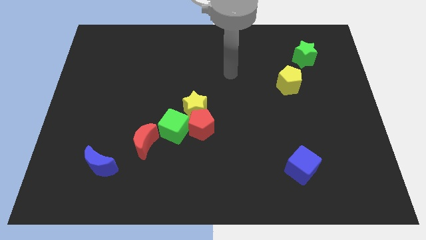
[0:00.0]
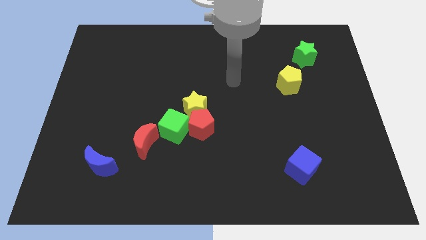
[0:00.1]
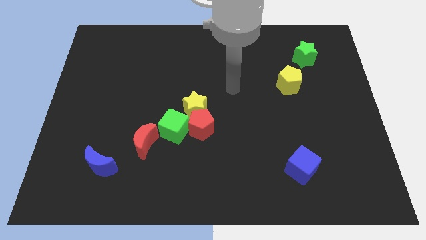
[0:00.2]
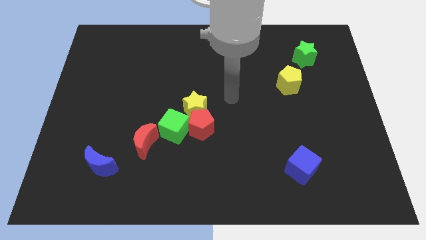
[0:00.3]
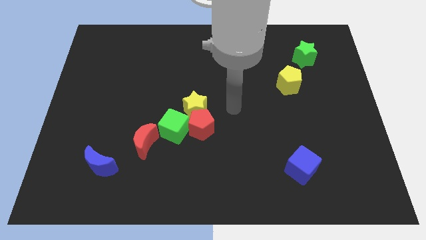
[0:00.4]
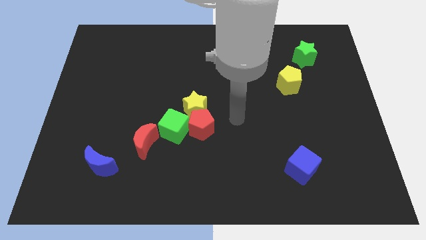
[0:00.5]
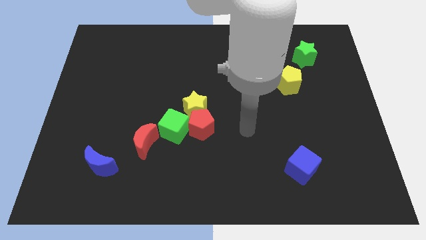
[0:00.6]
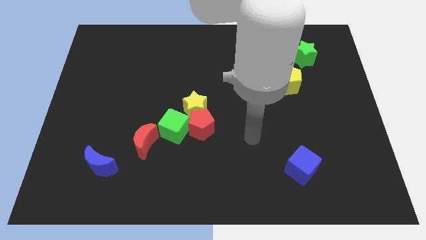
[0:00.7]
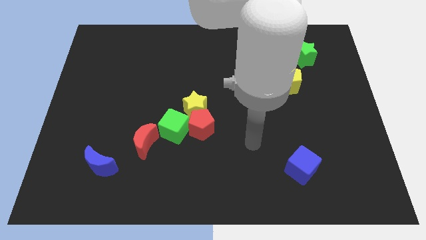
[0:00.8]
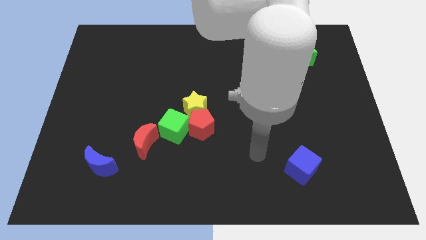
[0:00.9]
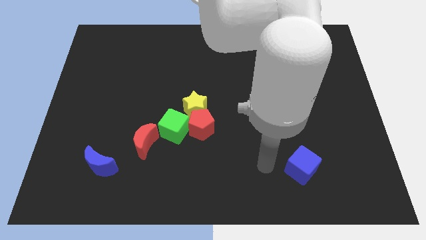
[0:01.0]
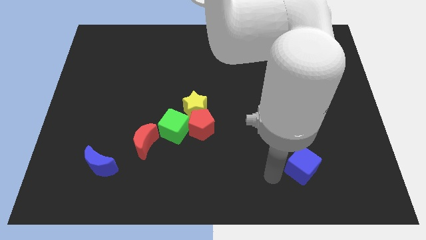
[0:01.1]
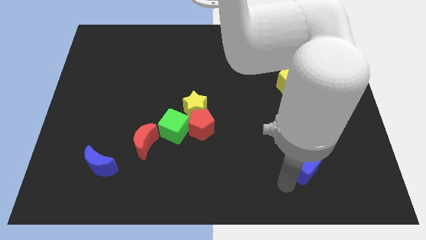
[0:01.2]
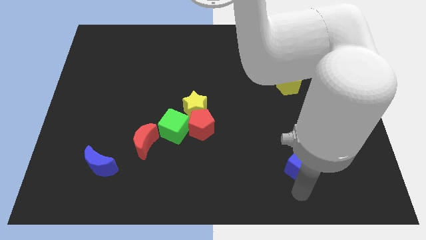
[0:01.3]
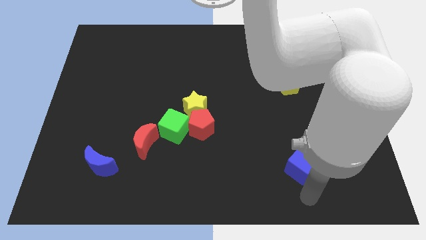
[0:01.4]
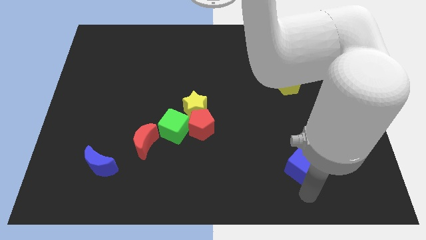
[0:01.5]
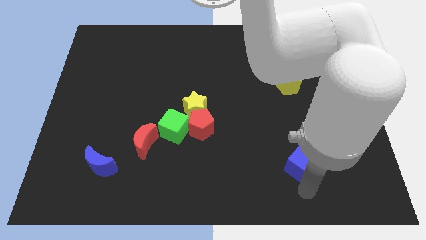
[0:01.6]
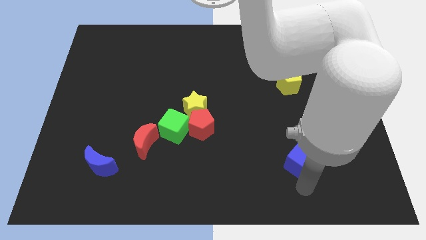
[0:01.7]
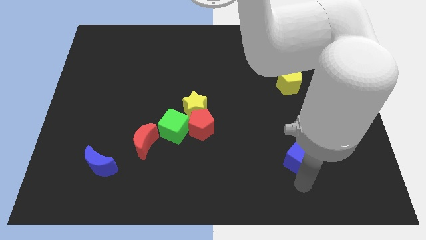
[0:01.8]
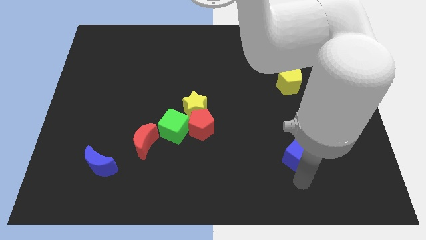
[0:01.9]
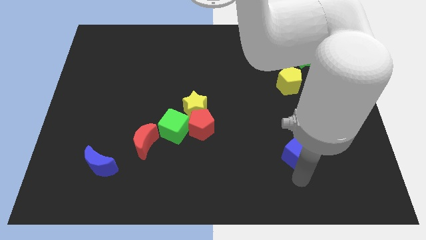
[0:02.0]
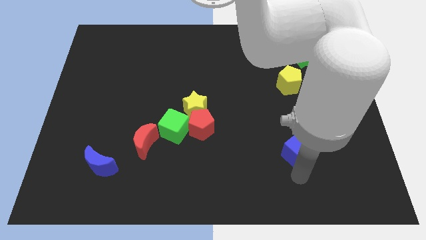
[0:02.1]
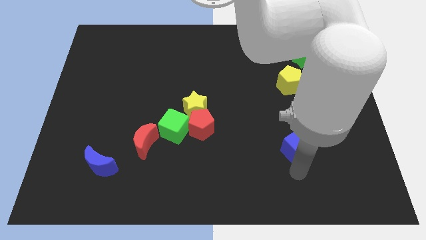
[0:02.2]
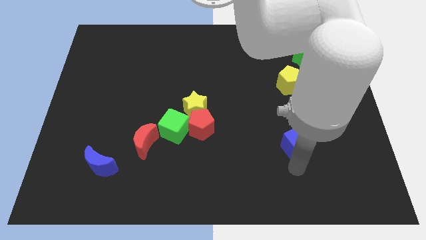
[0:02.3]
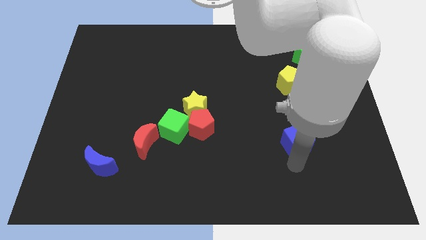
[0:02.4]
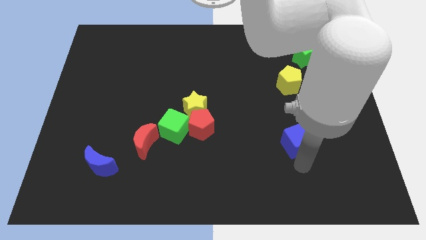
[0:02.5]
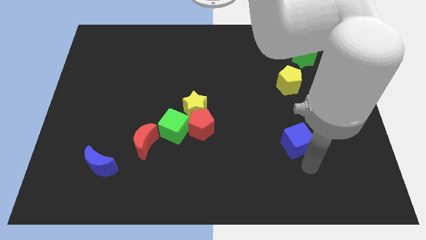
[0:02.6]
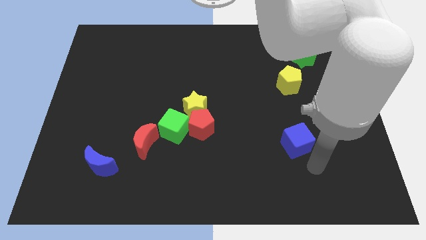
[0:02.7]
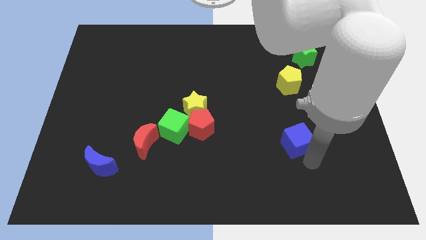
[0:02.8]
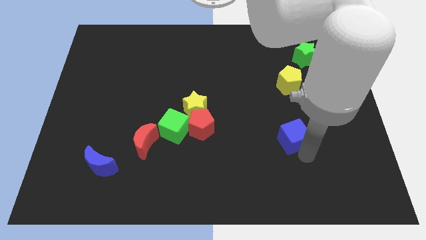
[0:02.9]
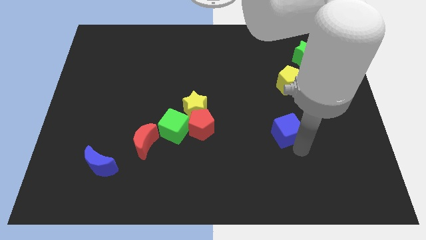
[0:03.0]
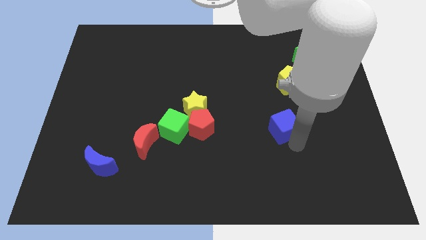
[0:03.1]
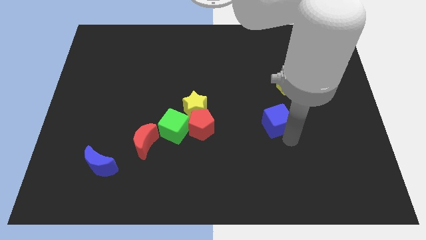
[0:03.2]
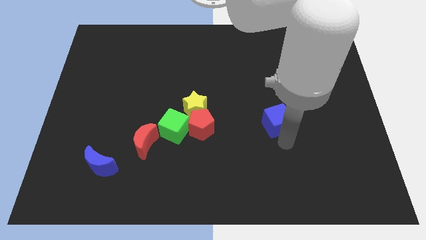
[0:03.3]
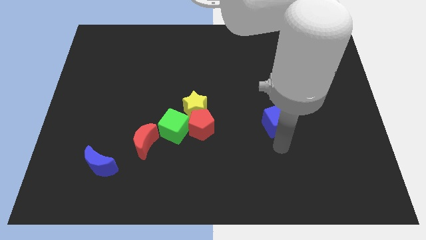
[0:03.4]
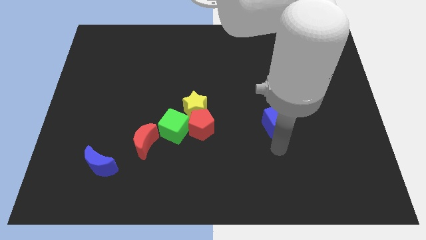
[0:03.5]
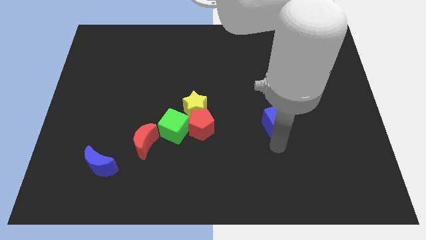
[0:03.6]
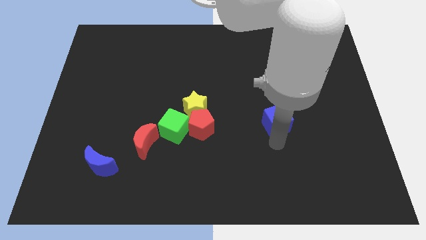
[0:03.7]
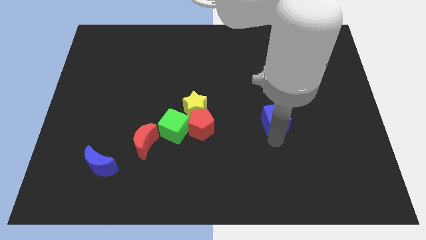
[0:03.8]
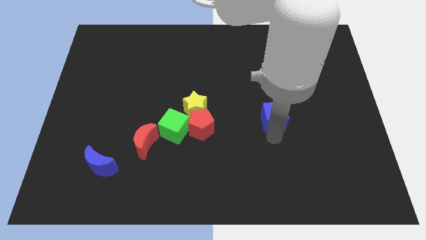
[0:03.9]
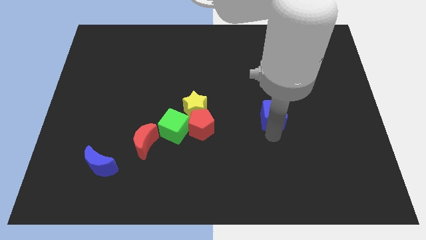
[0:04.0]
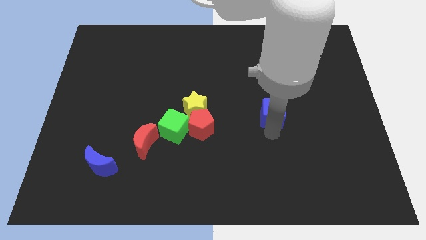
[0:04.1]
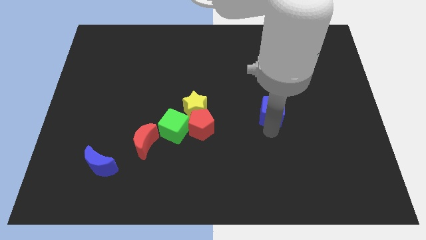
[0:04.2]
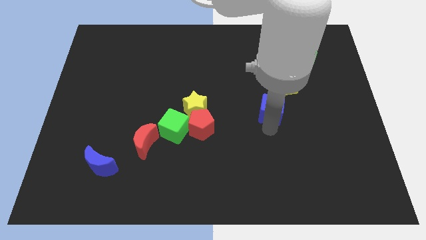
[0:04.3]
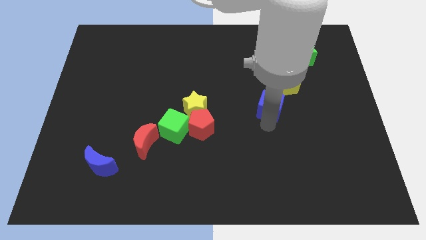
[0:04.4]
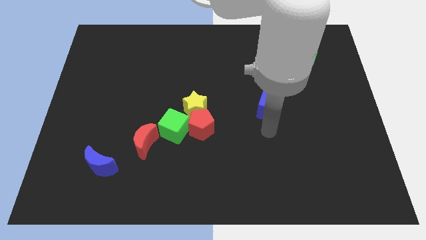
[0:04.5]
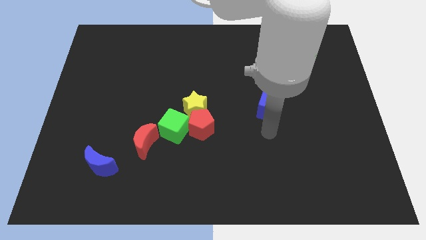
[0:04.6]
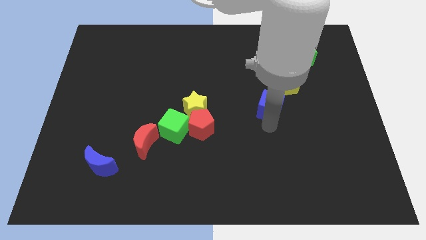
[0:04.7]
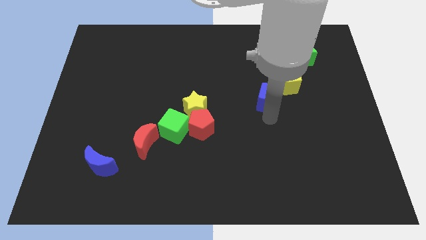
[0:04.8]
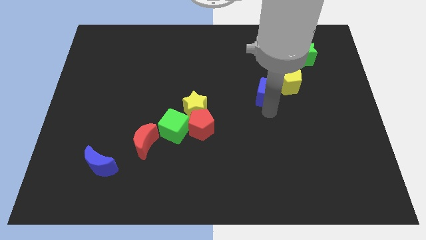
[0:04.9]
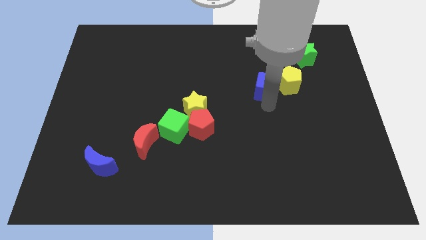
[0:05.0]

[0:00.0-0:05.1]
slide the blue cube up

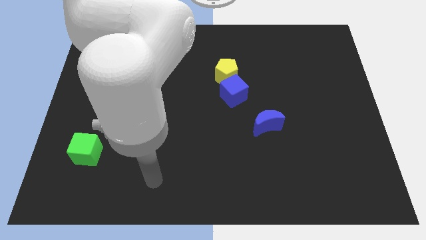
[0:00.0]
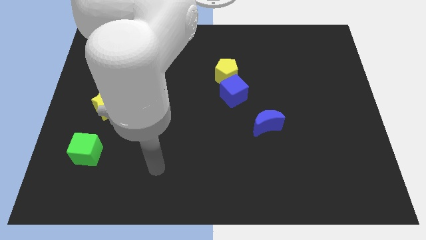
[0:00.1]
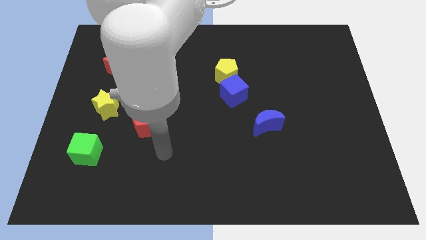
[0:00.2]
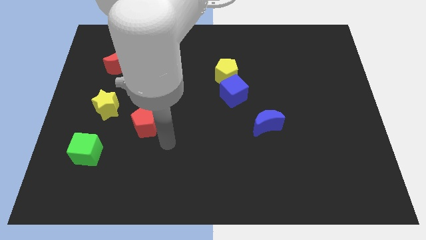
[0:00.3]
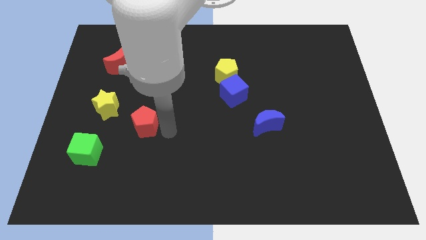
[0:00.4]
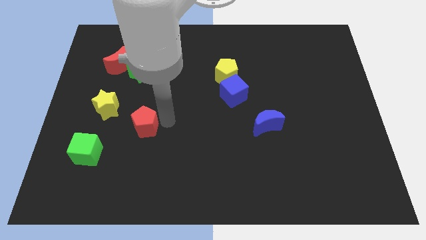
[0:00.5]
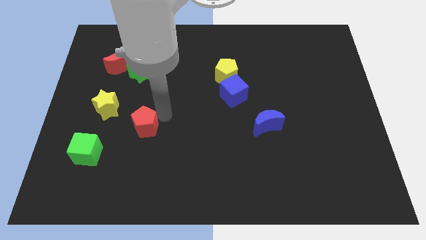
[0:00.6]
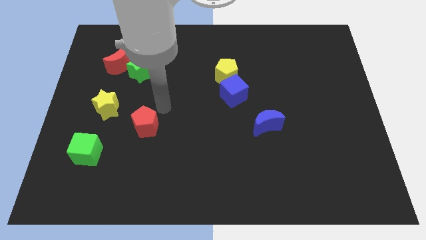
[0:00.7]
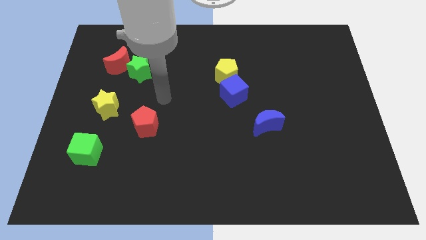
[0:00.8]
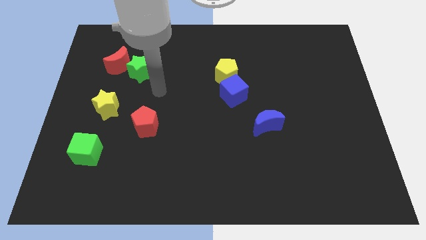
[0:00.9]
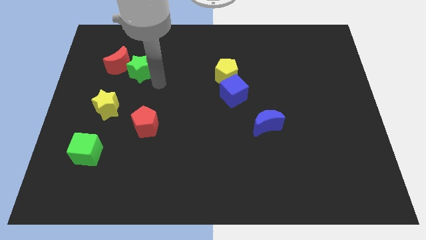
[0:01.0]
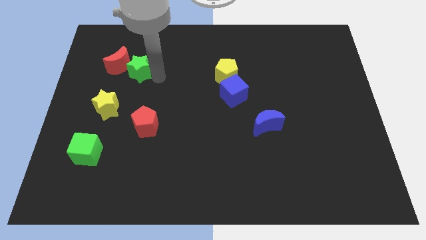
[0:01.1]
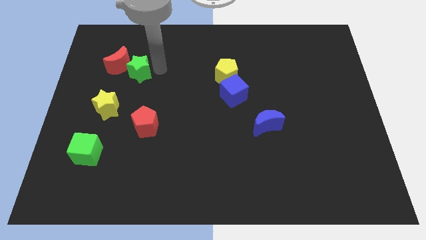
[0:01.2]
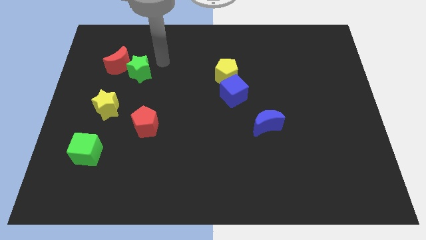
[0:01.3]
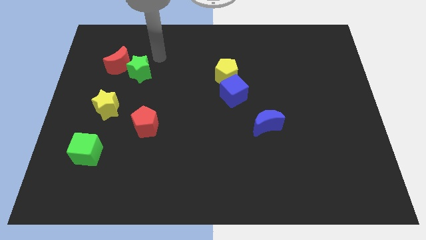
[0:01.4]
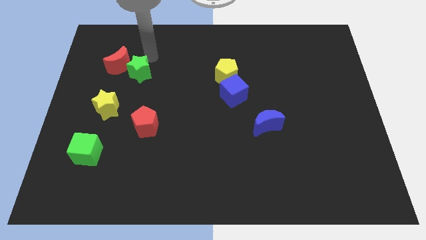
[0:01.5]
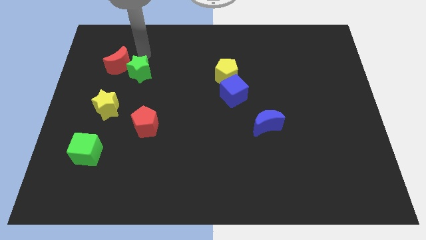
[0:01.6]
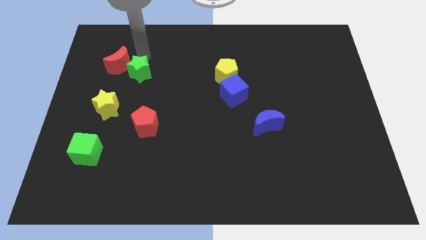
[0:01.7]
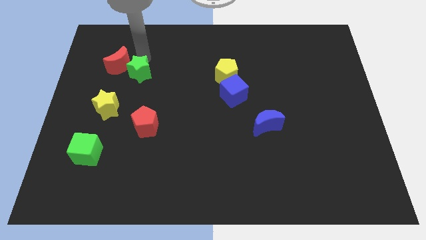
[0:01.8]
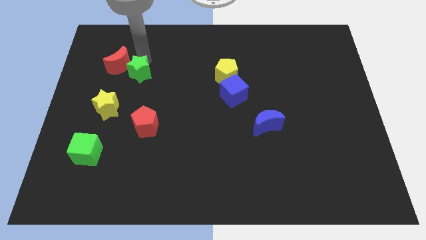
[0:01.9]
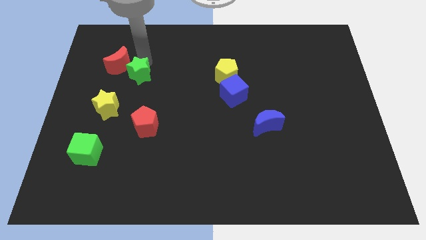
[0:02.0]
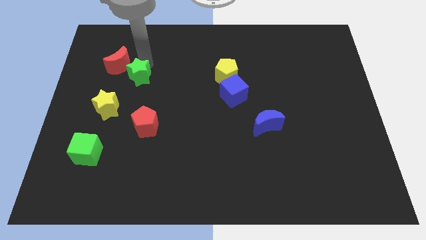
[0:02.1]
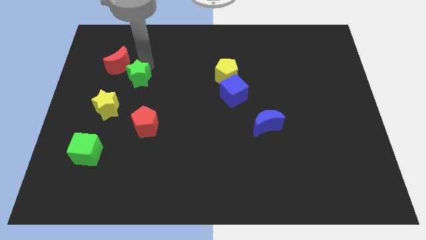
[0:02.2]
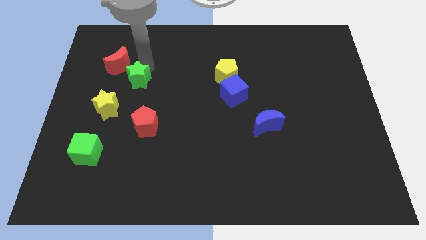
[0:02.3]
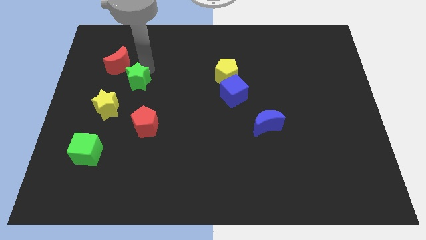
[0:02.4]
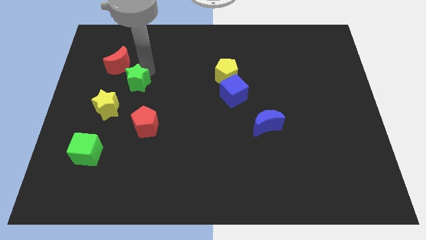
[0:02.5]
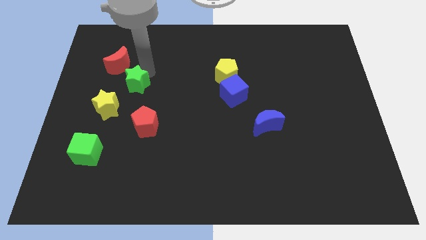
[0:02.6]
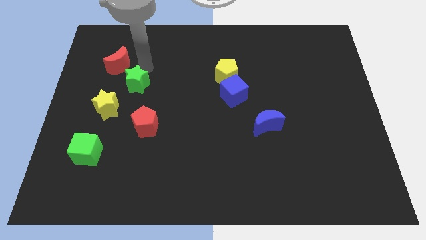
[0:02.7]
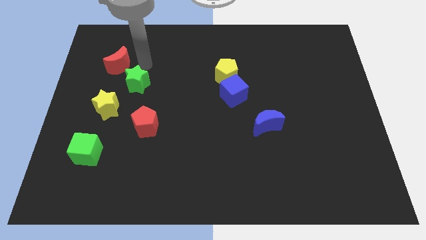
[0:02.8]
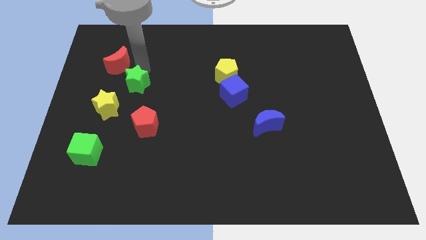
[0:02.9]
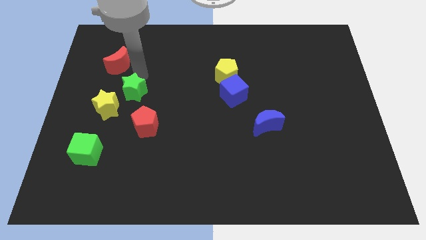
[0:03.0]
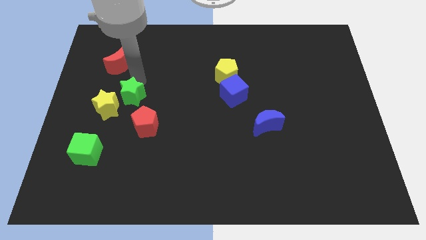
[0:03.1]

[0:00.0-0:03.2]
slide the green star down slightly
